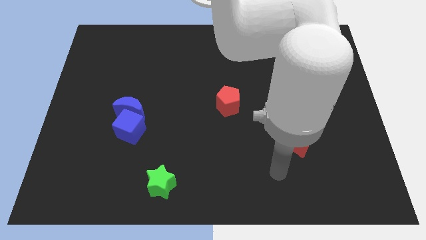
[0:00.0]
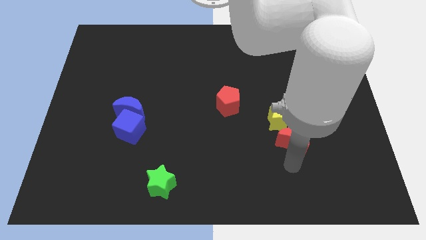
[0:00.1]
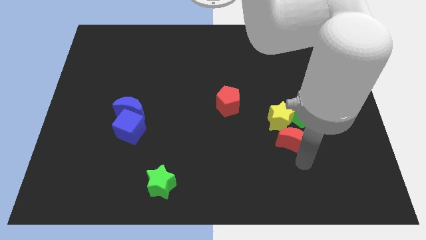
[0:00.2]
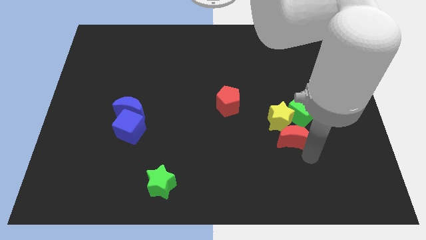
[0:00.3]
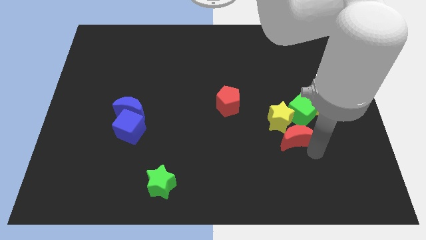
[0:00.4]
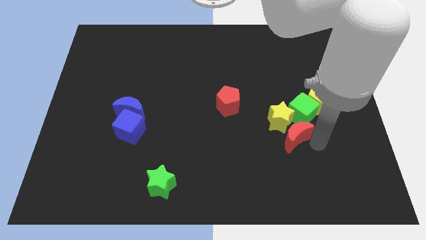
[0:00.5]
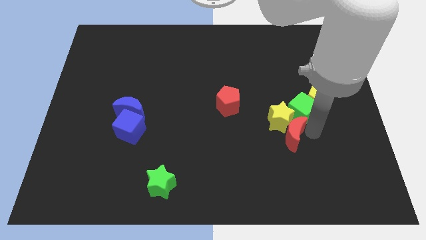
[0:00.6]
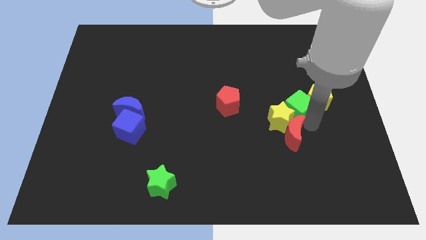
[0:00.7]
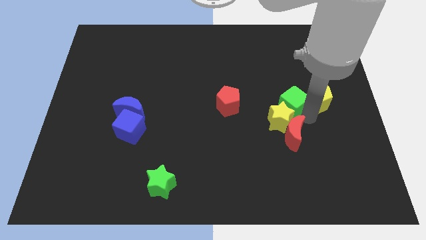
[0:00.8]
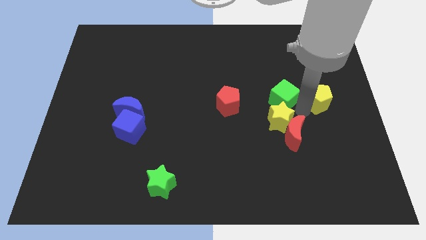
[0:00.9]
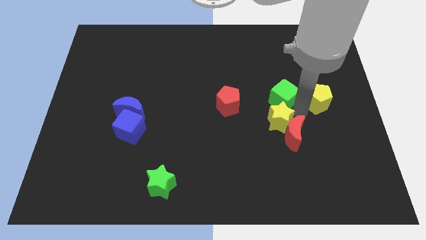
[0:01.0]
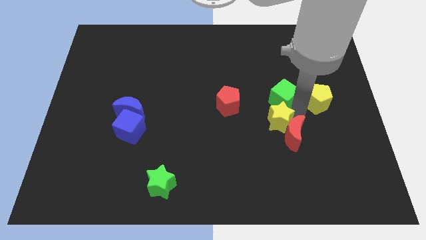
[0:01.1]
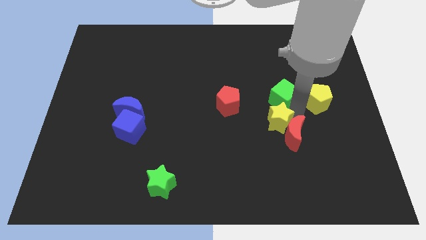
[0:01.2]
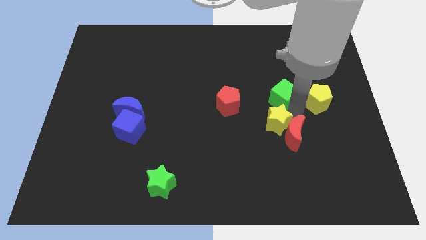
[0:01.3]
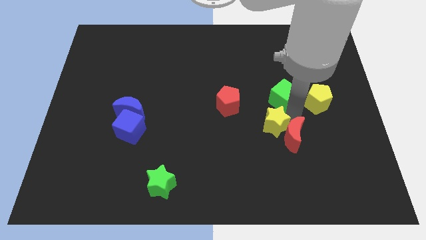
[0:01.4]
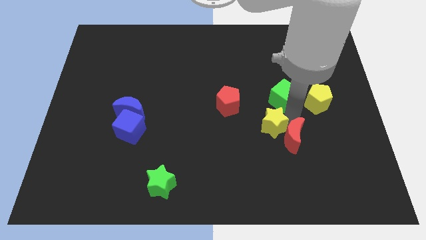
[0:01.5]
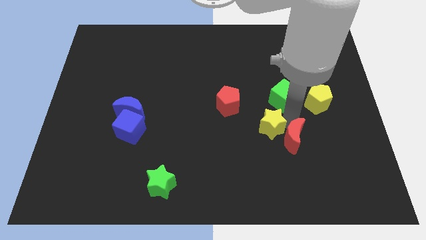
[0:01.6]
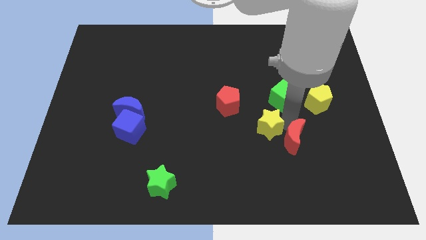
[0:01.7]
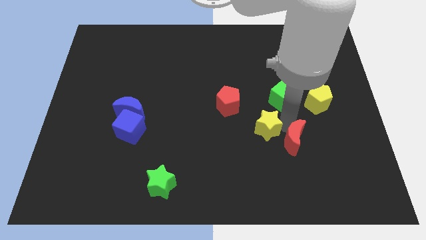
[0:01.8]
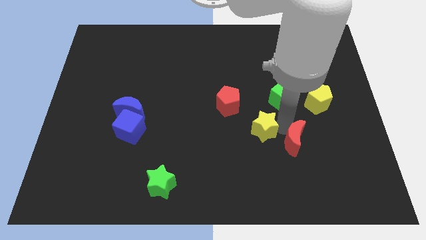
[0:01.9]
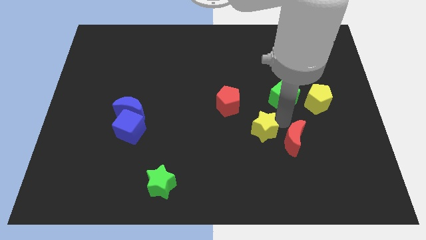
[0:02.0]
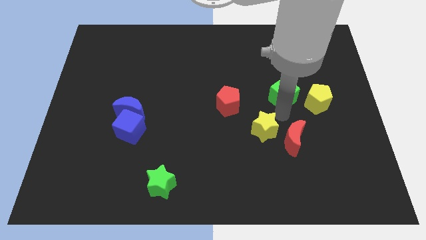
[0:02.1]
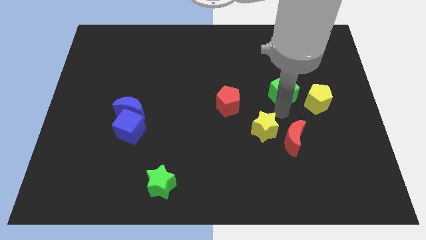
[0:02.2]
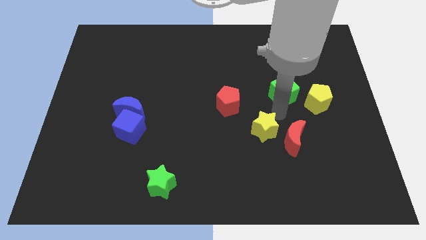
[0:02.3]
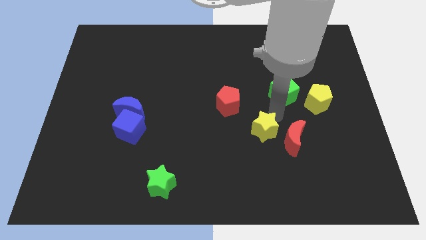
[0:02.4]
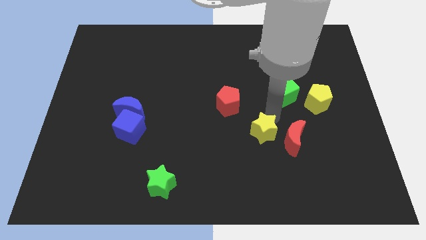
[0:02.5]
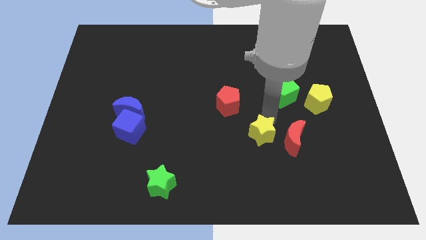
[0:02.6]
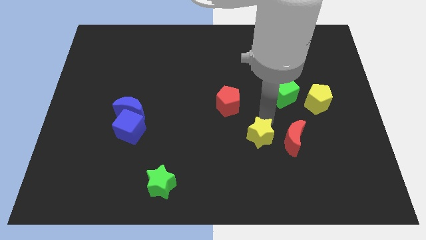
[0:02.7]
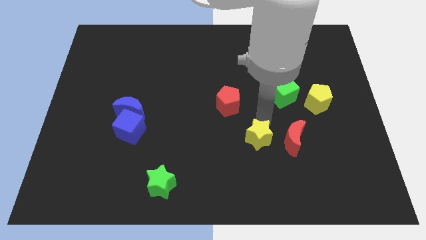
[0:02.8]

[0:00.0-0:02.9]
slide the yellow star slightly downwards and then left

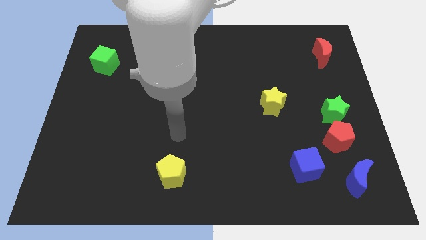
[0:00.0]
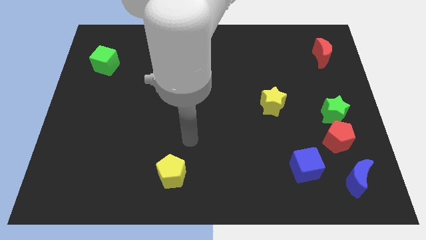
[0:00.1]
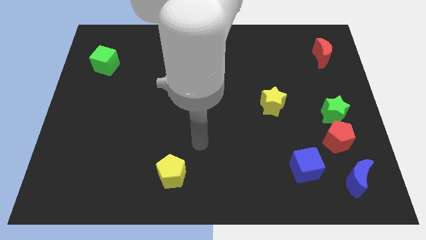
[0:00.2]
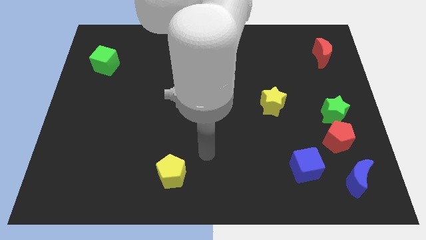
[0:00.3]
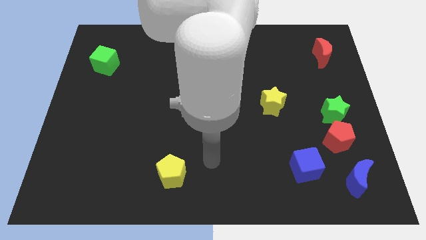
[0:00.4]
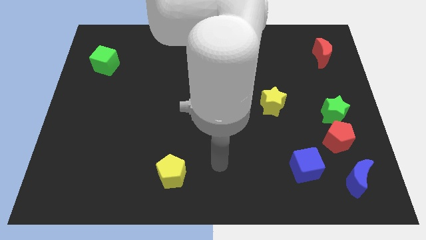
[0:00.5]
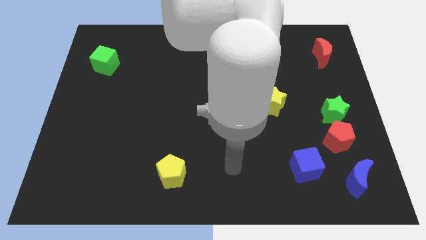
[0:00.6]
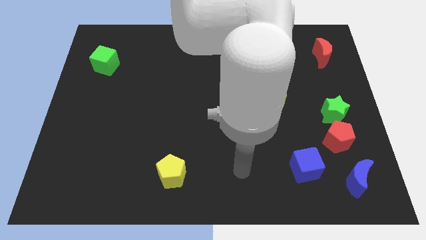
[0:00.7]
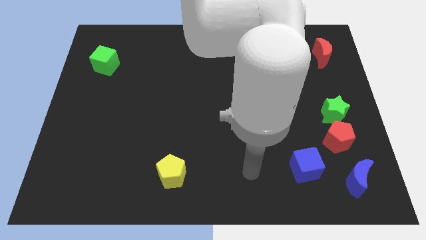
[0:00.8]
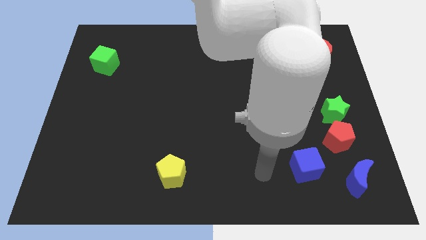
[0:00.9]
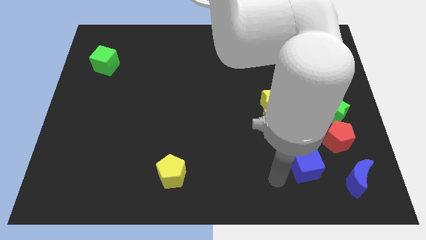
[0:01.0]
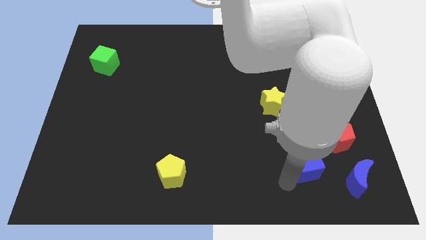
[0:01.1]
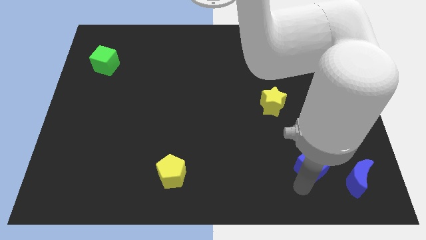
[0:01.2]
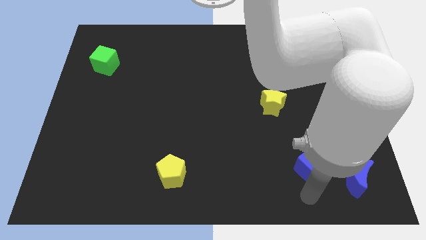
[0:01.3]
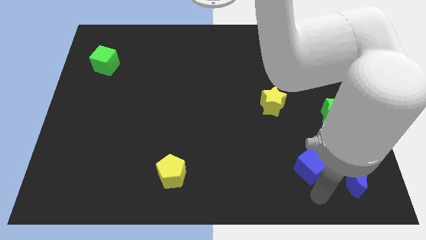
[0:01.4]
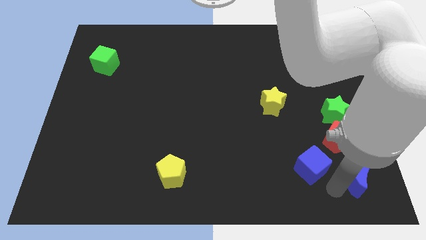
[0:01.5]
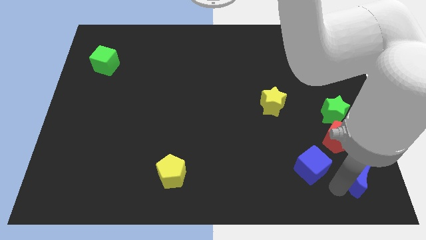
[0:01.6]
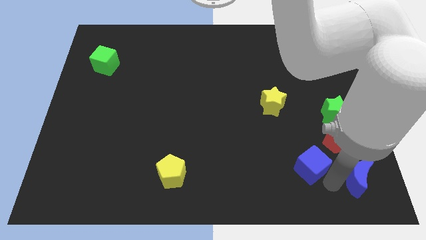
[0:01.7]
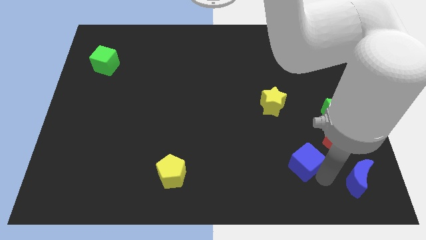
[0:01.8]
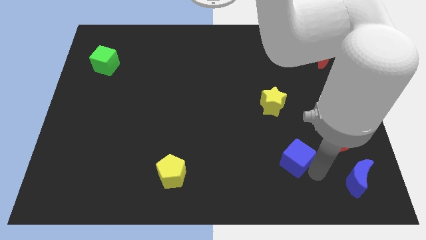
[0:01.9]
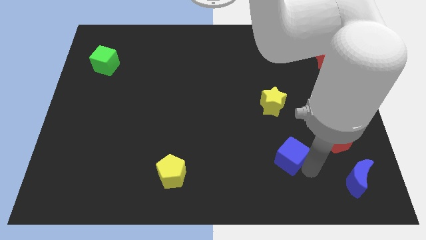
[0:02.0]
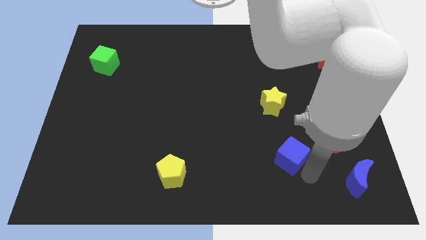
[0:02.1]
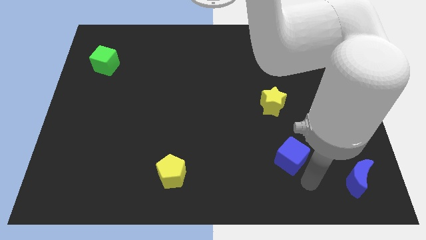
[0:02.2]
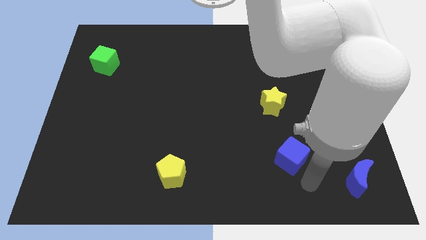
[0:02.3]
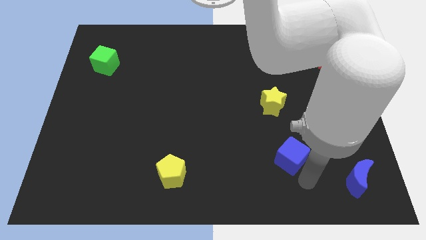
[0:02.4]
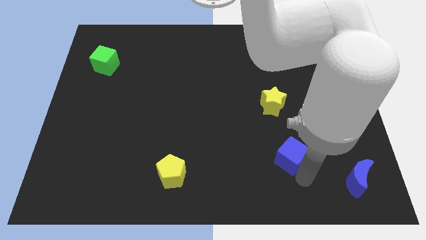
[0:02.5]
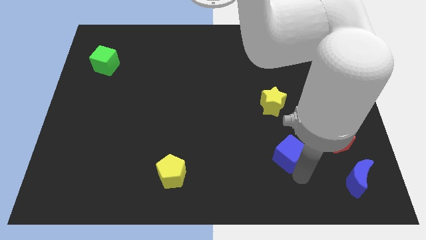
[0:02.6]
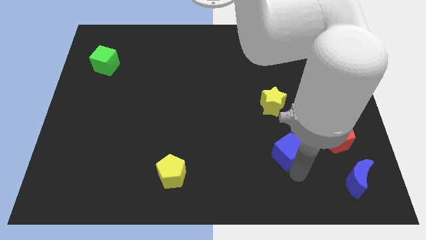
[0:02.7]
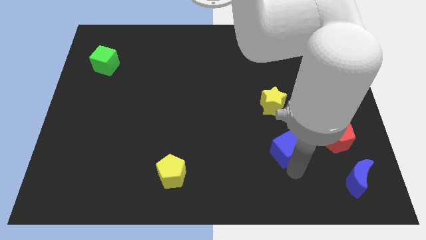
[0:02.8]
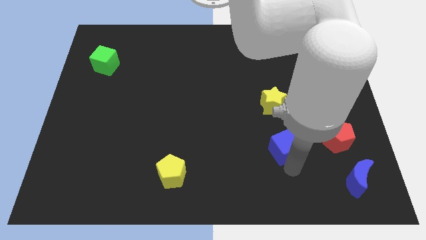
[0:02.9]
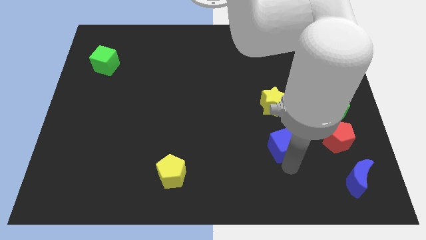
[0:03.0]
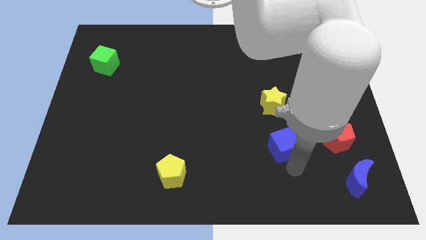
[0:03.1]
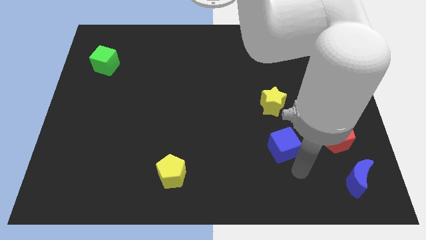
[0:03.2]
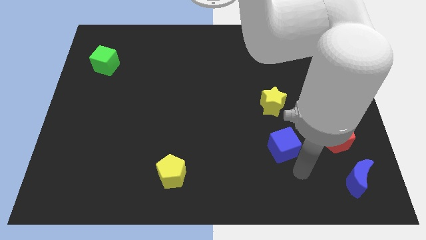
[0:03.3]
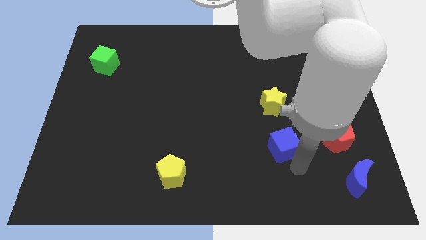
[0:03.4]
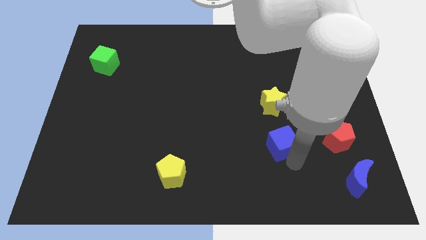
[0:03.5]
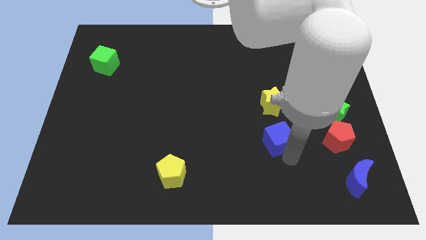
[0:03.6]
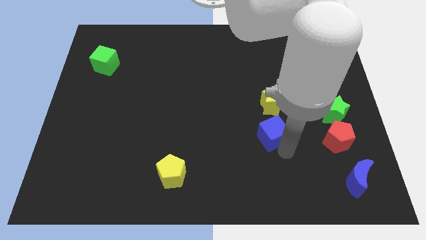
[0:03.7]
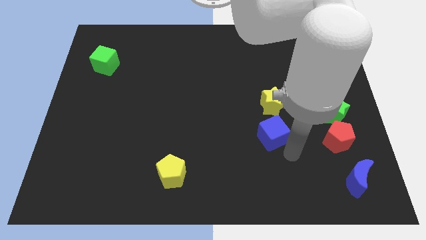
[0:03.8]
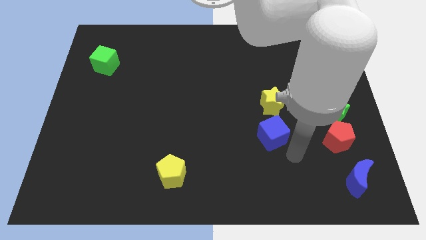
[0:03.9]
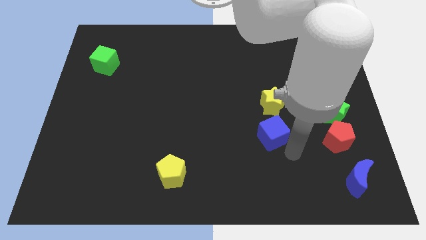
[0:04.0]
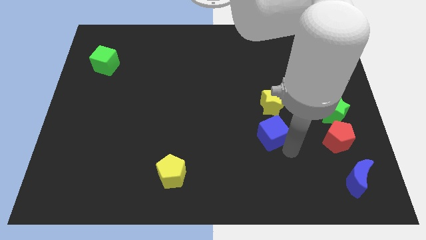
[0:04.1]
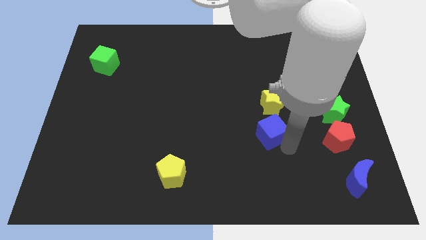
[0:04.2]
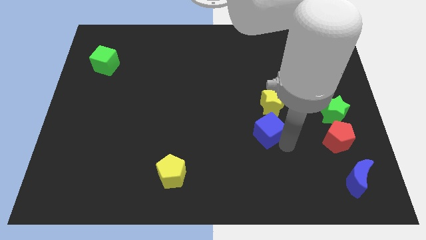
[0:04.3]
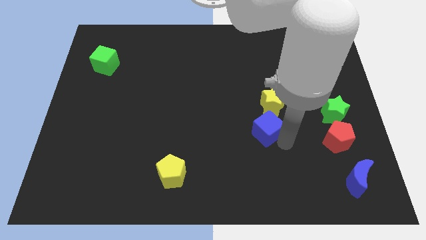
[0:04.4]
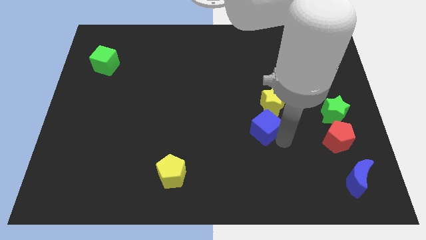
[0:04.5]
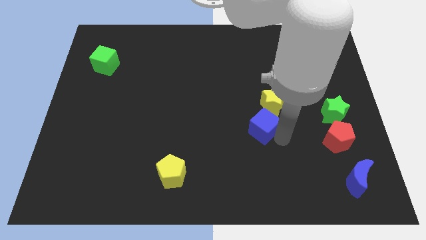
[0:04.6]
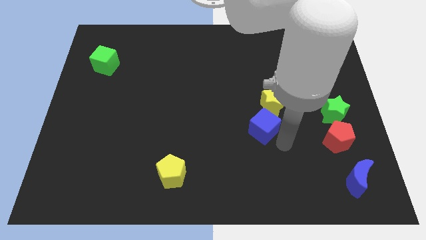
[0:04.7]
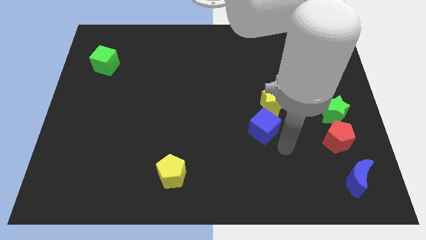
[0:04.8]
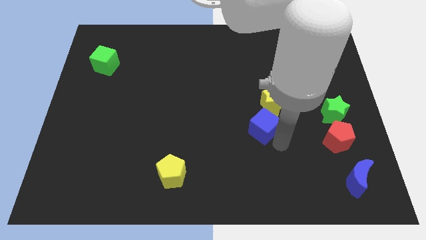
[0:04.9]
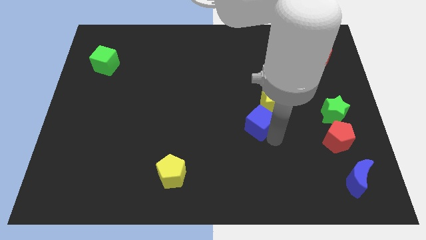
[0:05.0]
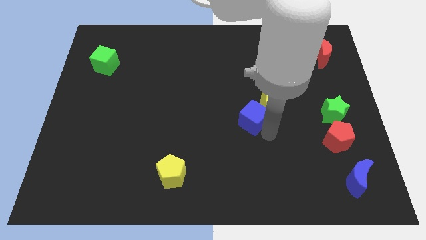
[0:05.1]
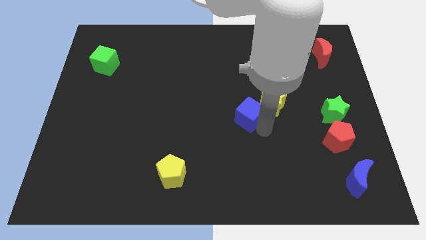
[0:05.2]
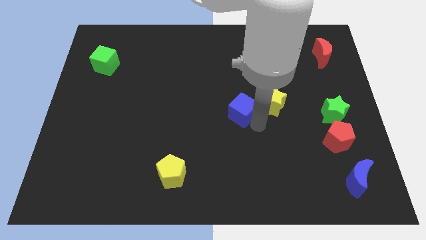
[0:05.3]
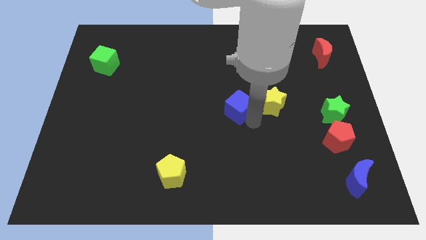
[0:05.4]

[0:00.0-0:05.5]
move the blue cube up and to the left diagonally
